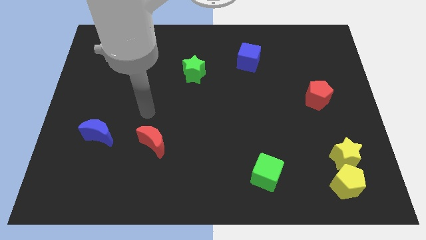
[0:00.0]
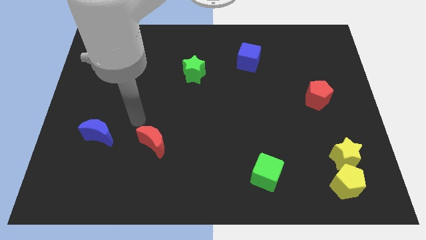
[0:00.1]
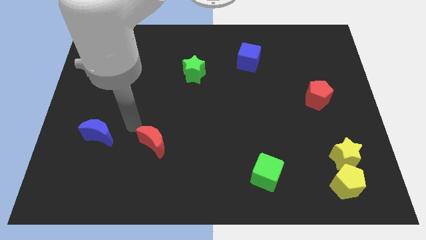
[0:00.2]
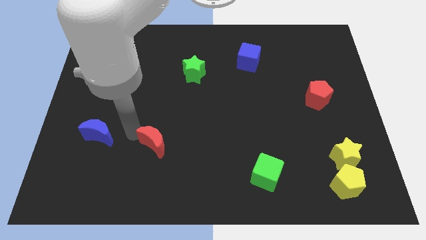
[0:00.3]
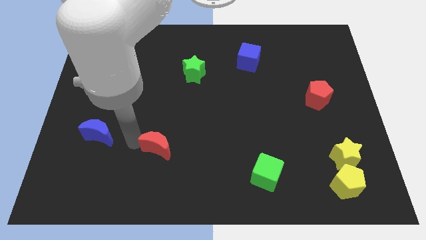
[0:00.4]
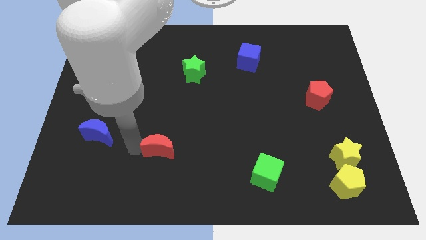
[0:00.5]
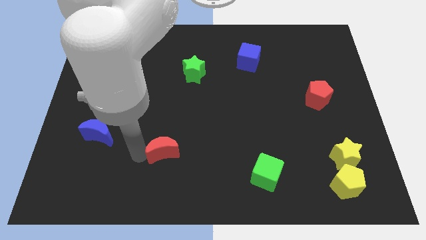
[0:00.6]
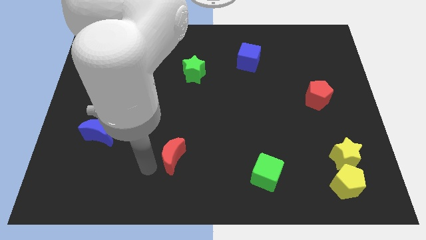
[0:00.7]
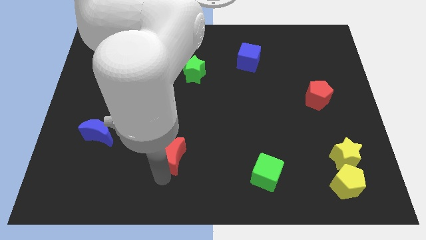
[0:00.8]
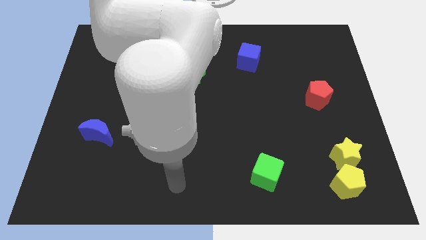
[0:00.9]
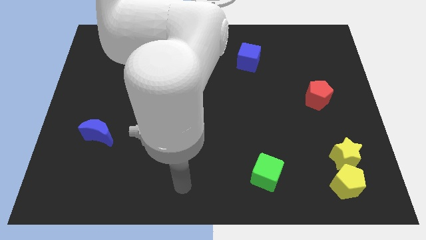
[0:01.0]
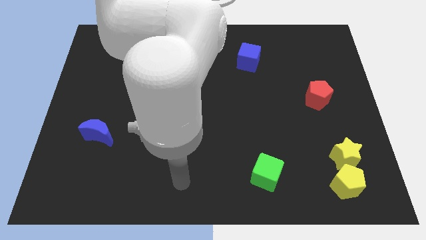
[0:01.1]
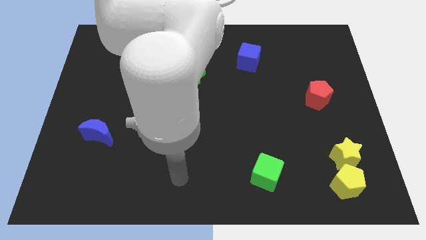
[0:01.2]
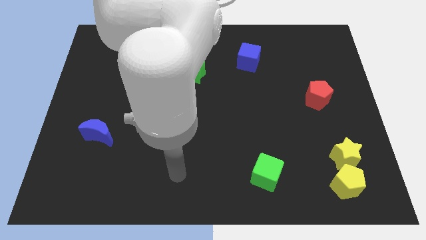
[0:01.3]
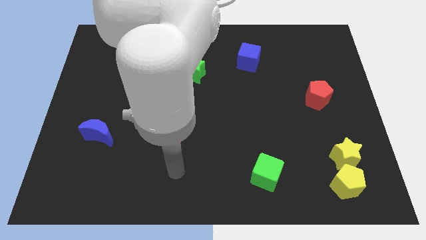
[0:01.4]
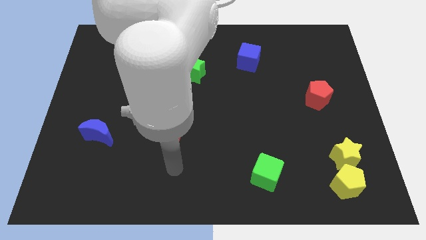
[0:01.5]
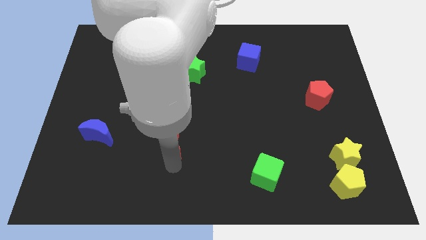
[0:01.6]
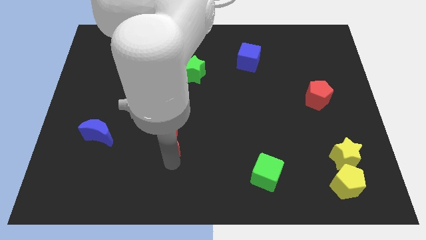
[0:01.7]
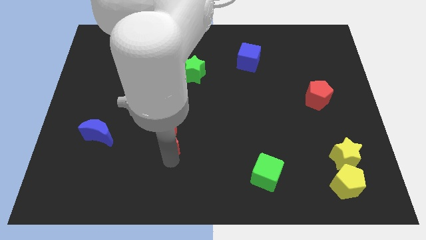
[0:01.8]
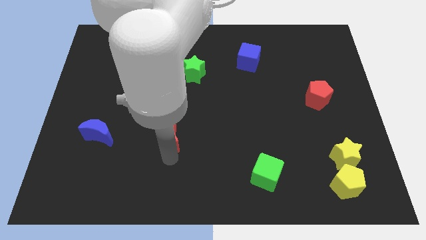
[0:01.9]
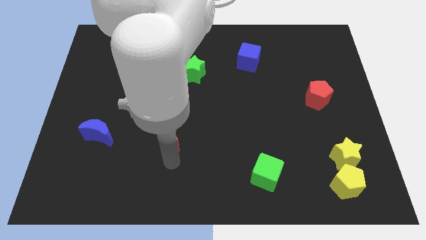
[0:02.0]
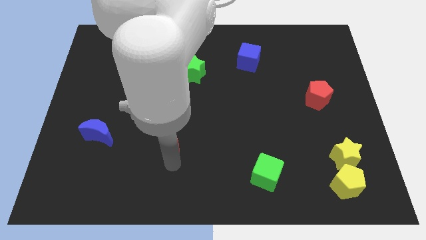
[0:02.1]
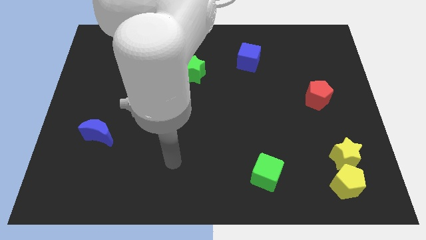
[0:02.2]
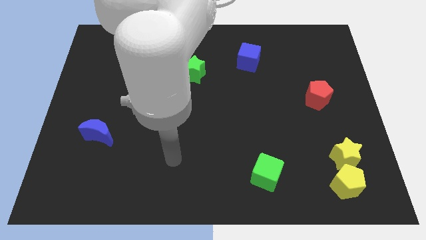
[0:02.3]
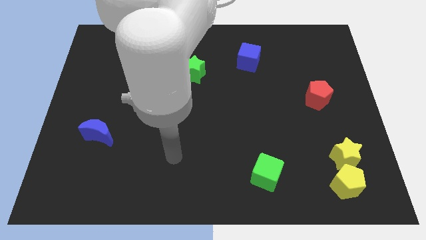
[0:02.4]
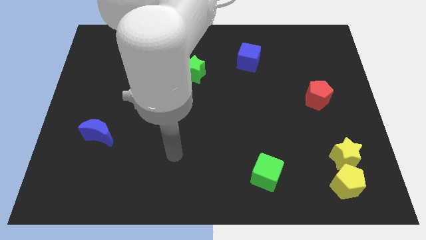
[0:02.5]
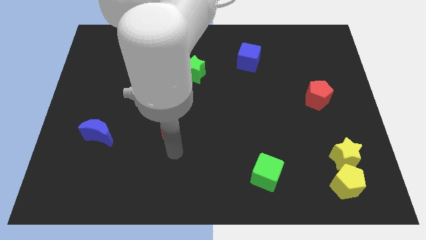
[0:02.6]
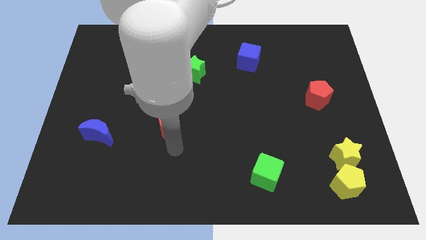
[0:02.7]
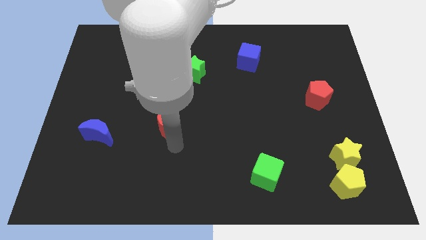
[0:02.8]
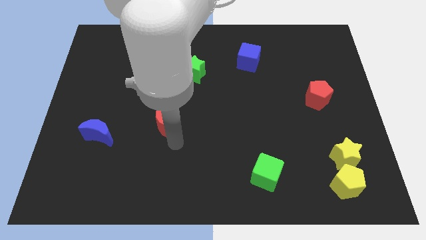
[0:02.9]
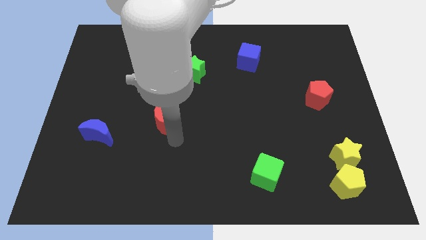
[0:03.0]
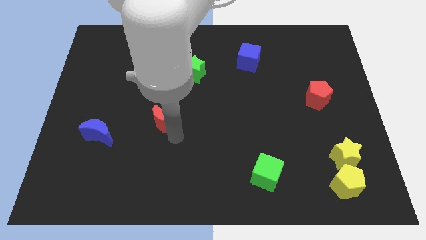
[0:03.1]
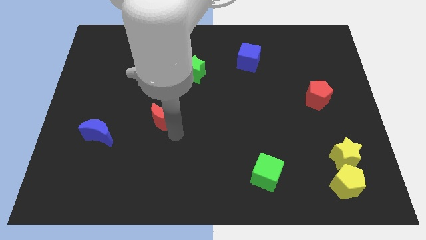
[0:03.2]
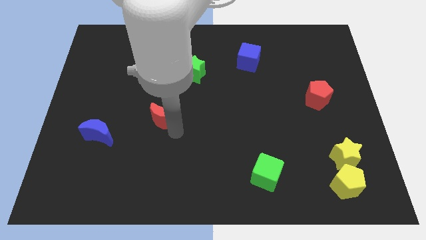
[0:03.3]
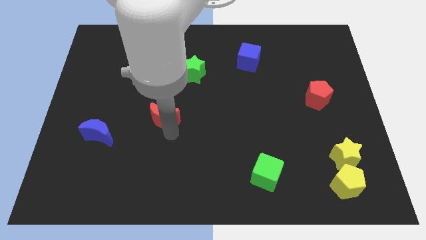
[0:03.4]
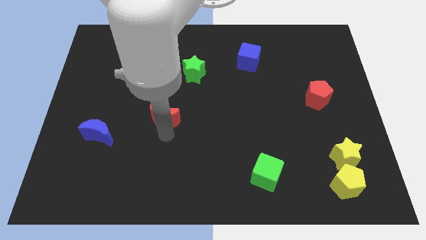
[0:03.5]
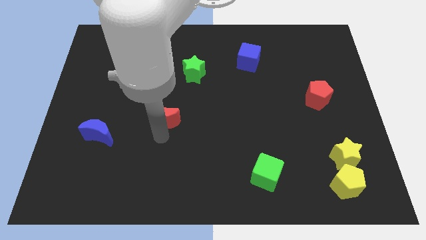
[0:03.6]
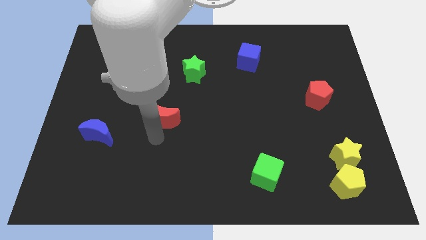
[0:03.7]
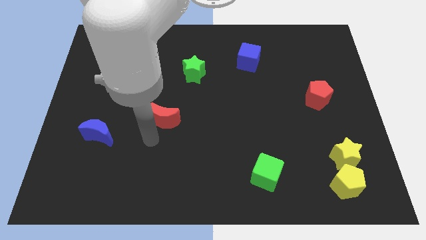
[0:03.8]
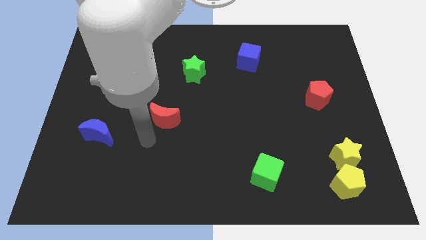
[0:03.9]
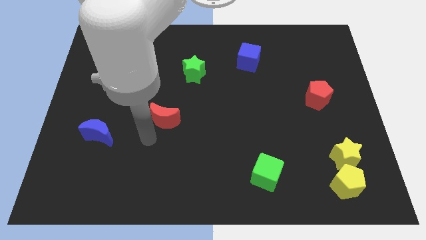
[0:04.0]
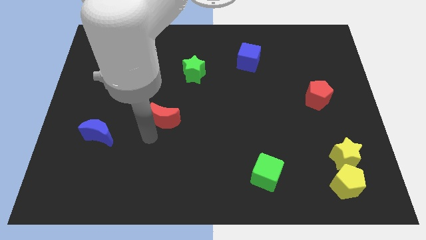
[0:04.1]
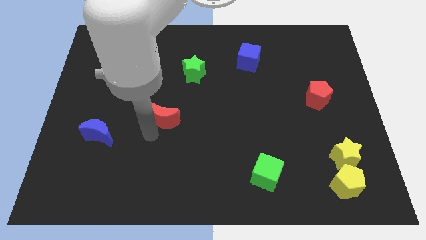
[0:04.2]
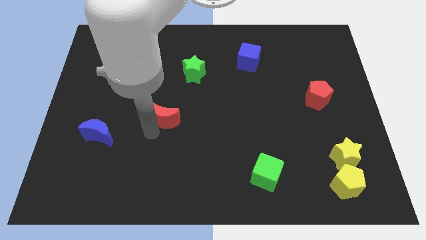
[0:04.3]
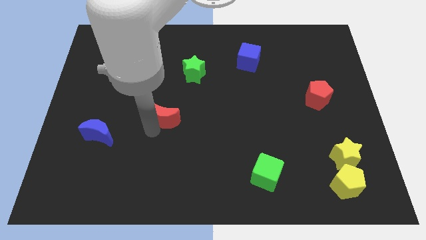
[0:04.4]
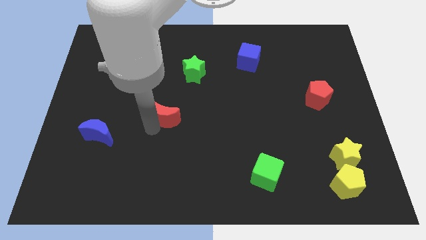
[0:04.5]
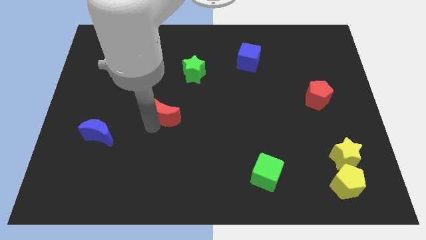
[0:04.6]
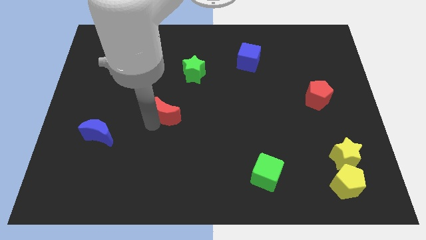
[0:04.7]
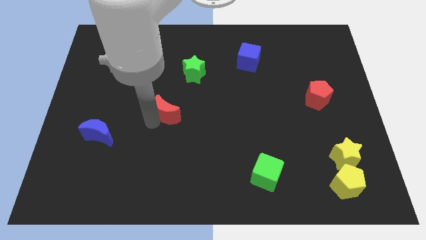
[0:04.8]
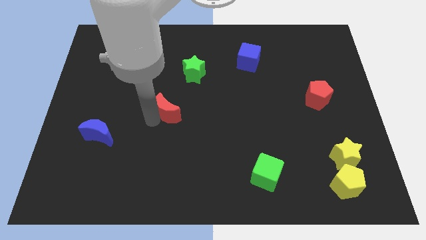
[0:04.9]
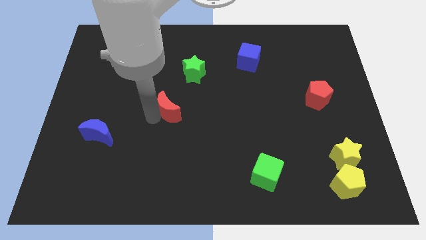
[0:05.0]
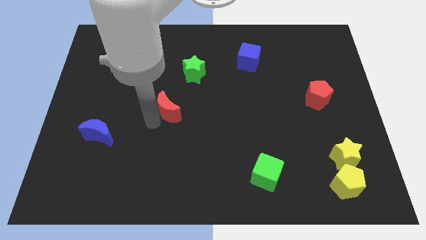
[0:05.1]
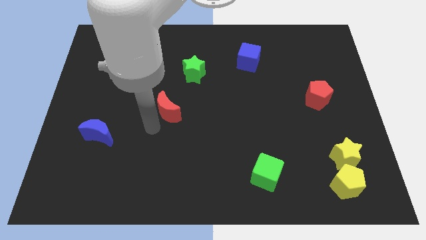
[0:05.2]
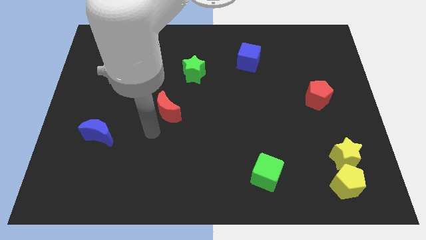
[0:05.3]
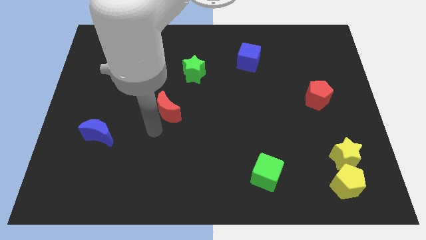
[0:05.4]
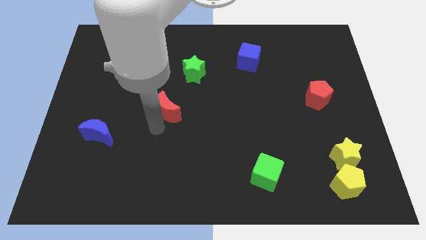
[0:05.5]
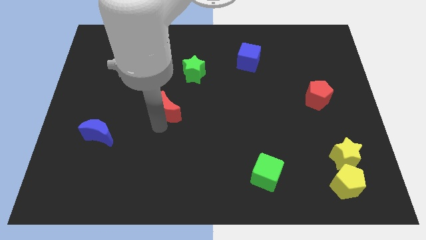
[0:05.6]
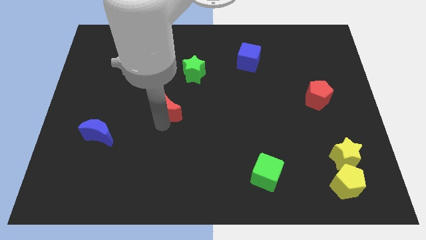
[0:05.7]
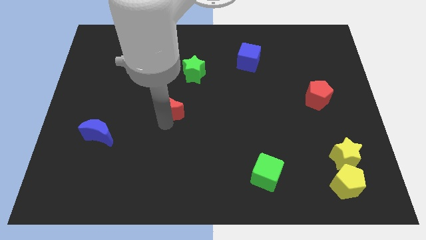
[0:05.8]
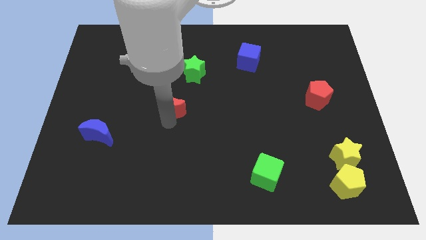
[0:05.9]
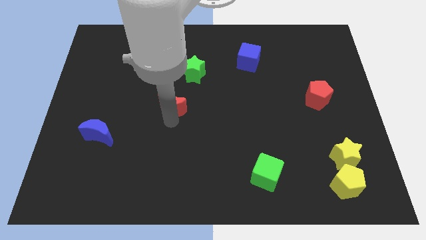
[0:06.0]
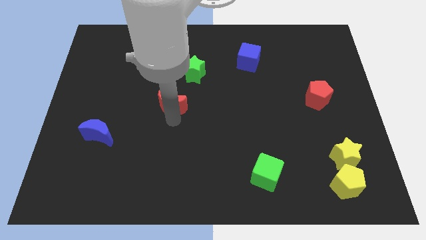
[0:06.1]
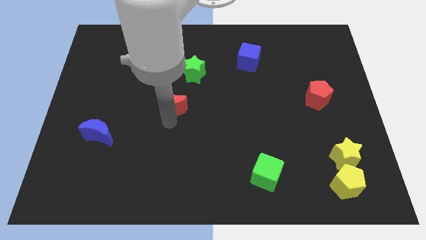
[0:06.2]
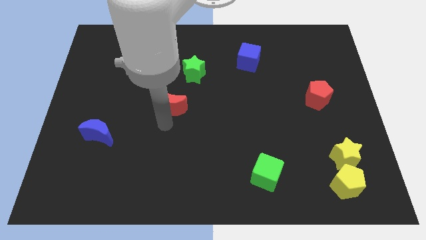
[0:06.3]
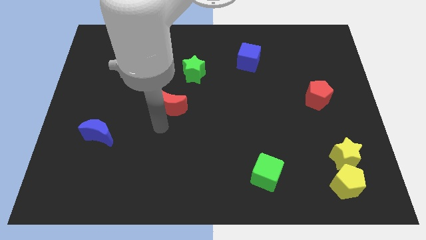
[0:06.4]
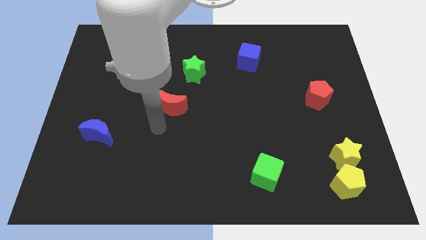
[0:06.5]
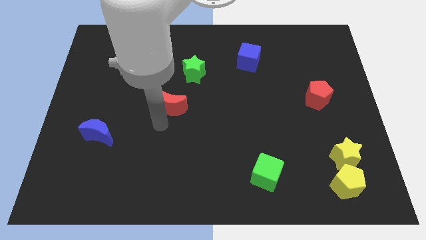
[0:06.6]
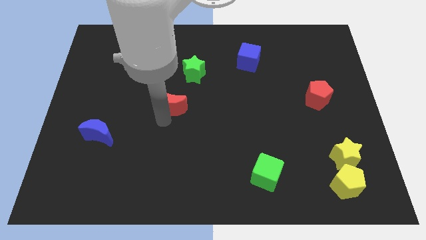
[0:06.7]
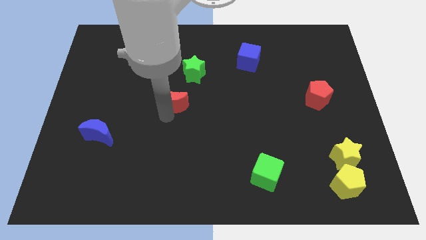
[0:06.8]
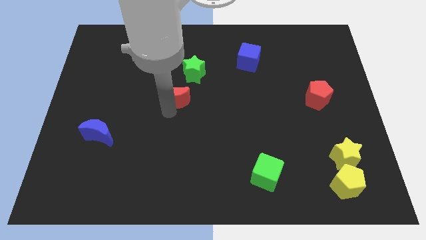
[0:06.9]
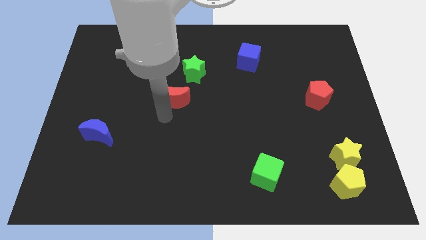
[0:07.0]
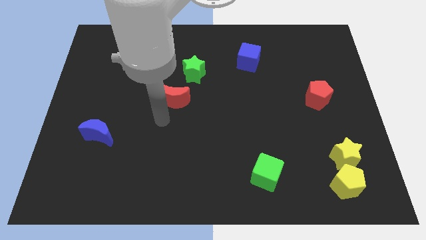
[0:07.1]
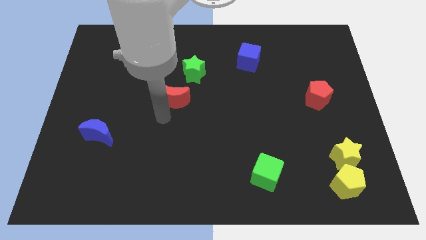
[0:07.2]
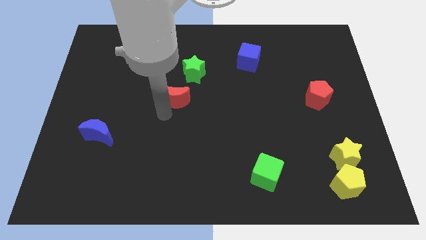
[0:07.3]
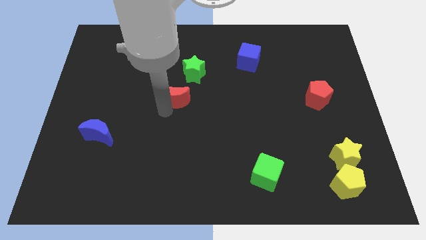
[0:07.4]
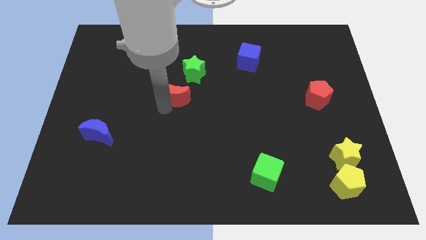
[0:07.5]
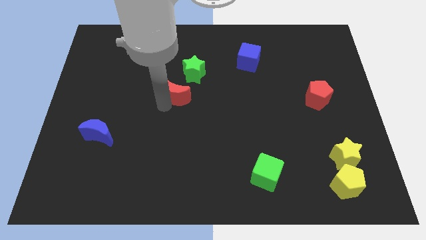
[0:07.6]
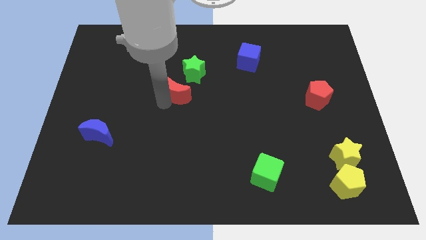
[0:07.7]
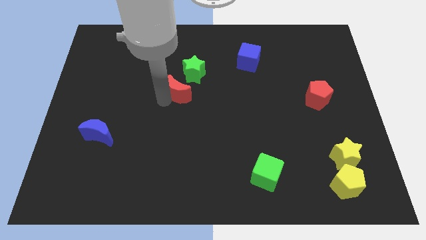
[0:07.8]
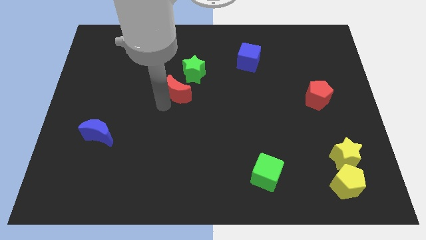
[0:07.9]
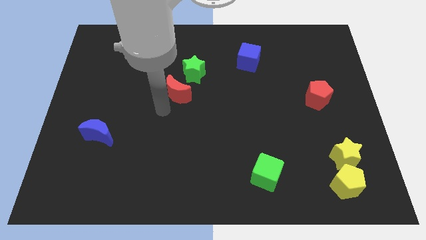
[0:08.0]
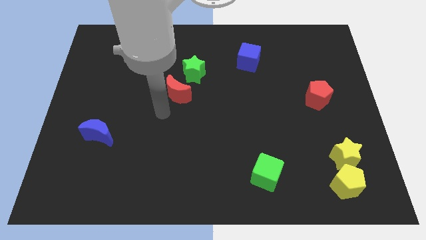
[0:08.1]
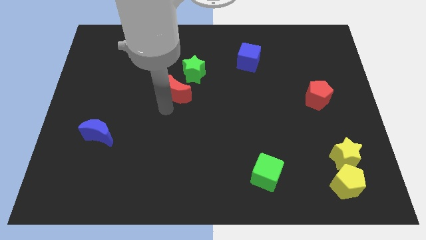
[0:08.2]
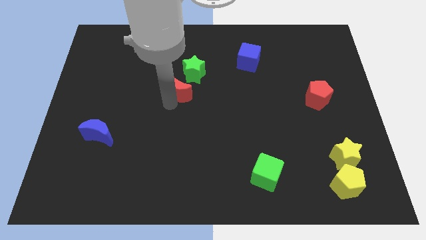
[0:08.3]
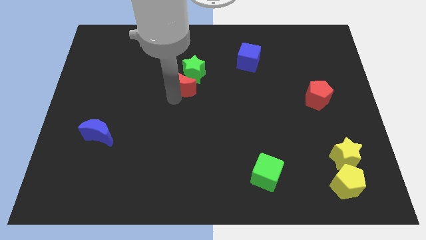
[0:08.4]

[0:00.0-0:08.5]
push the red moon close to the green star
